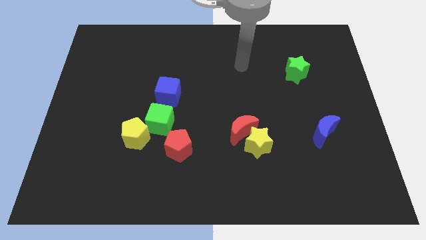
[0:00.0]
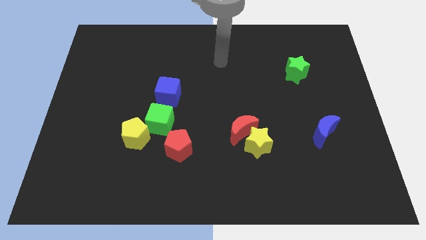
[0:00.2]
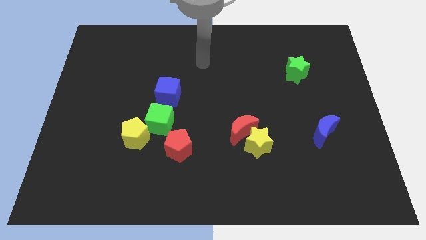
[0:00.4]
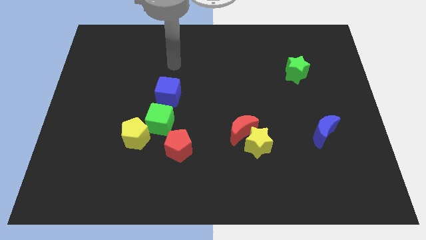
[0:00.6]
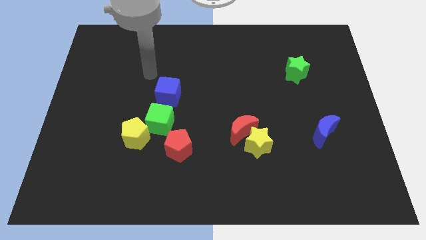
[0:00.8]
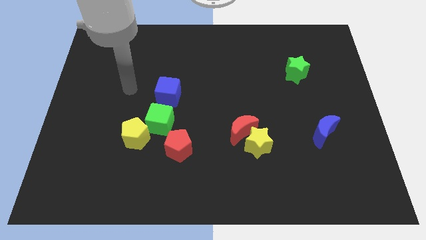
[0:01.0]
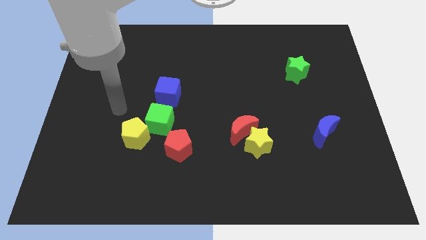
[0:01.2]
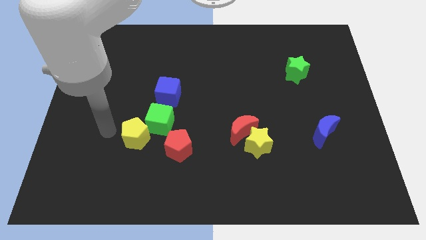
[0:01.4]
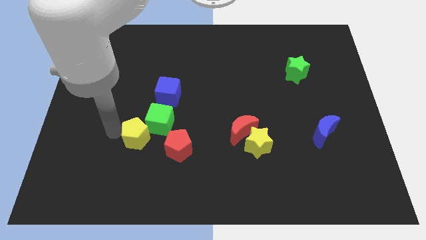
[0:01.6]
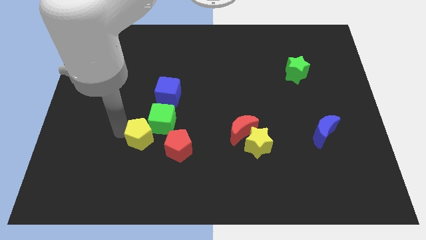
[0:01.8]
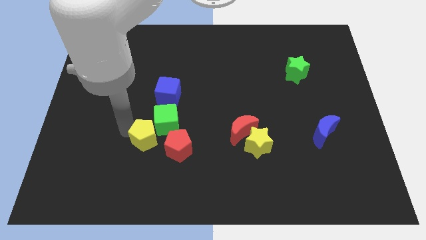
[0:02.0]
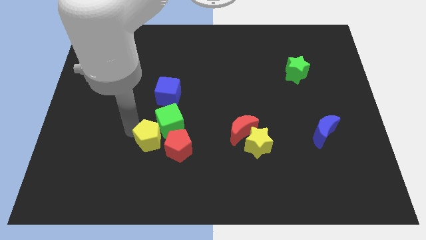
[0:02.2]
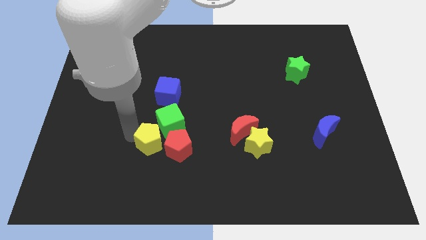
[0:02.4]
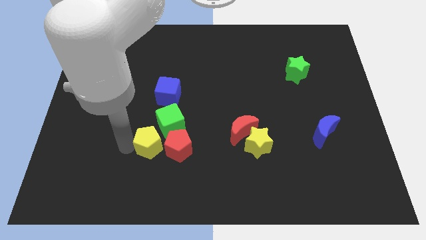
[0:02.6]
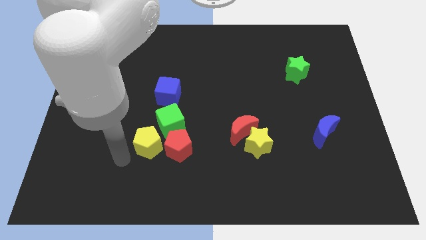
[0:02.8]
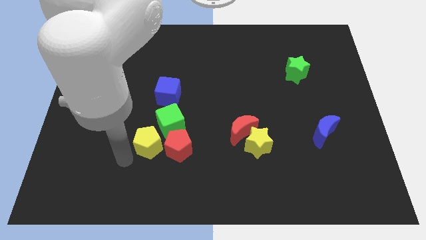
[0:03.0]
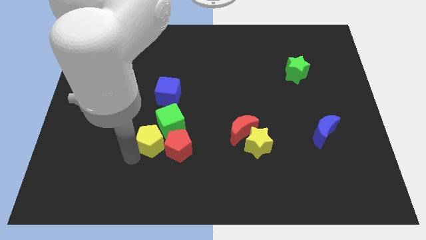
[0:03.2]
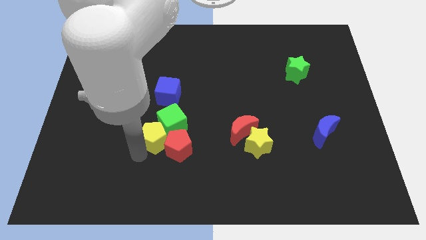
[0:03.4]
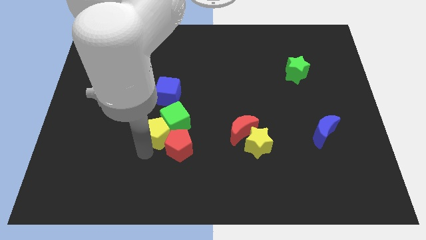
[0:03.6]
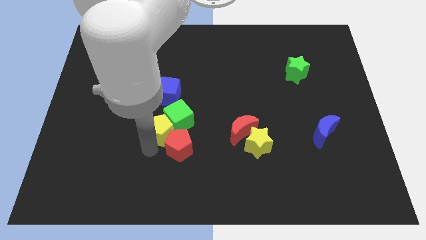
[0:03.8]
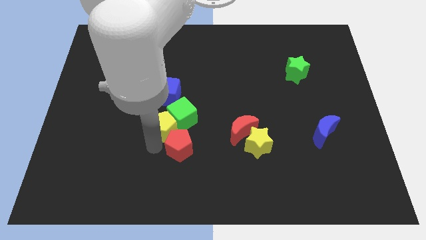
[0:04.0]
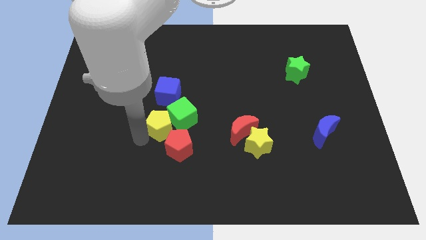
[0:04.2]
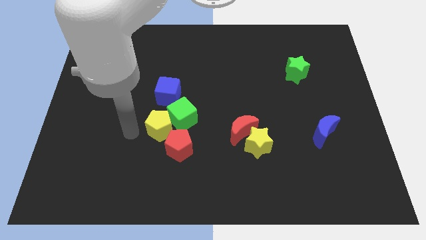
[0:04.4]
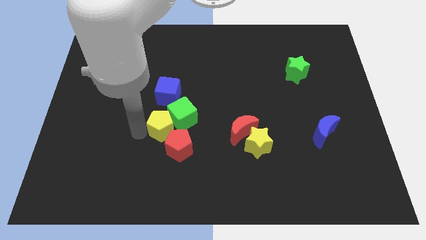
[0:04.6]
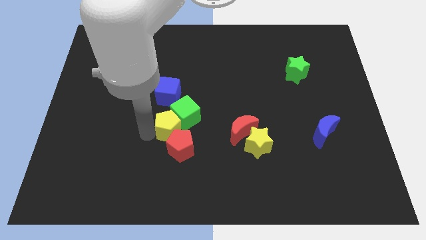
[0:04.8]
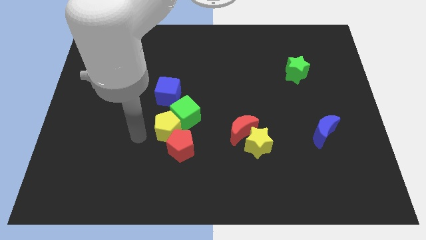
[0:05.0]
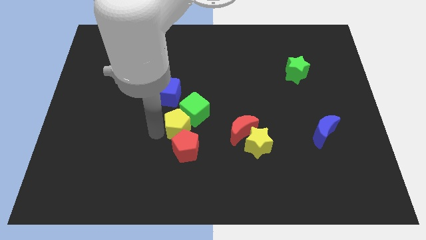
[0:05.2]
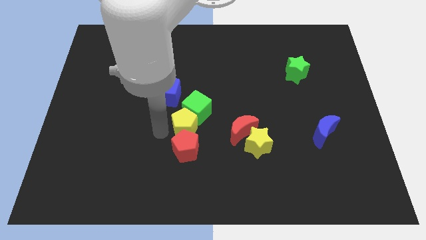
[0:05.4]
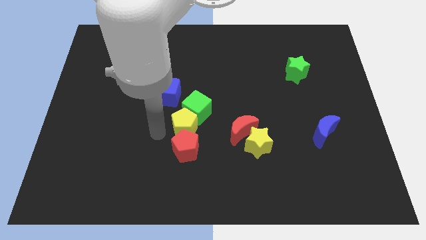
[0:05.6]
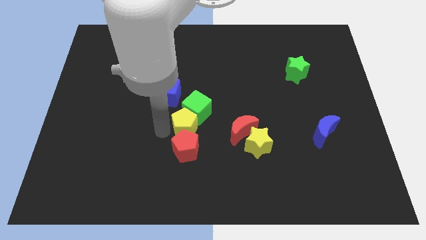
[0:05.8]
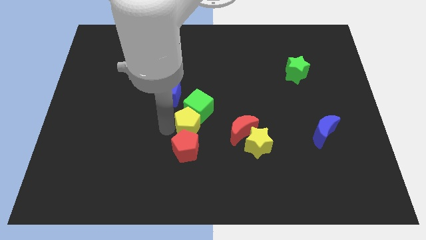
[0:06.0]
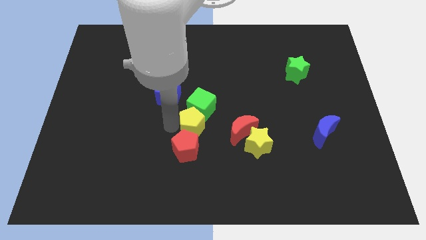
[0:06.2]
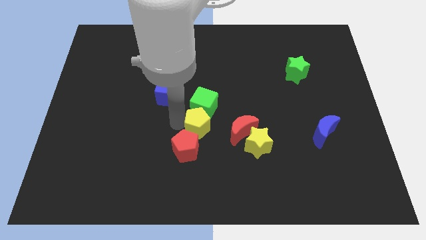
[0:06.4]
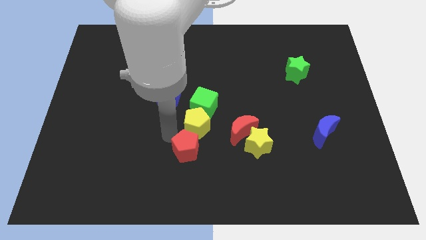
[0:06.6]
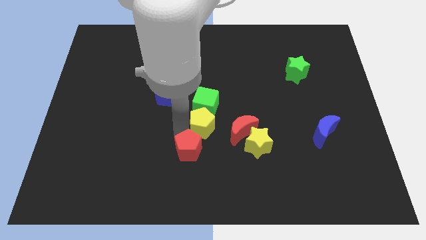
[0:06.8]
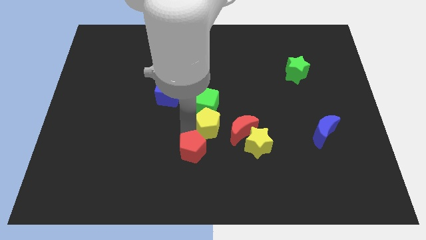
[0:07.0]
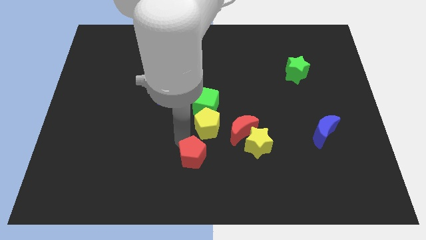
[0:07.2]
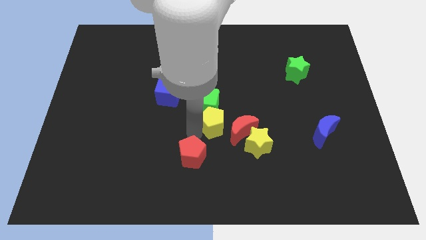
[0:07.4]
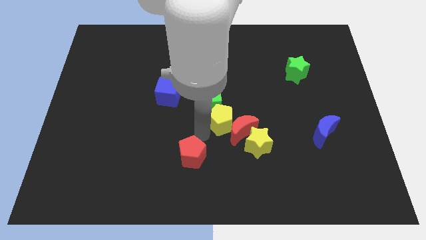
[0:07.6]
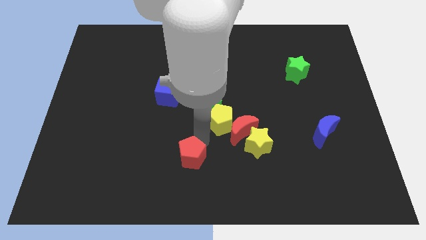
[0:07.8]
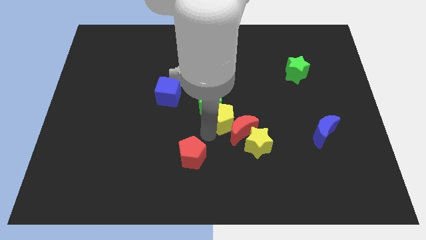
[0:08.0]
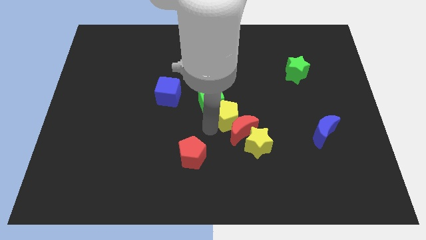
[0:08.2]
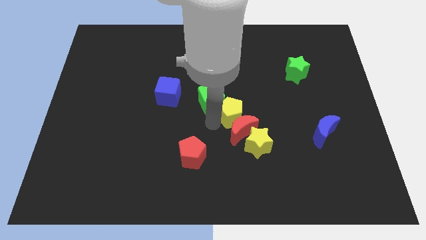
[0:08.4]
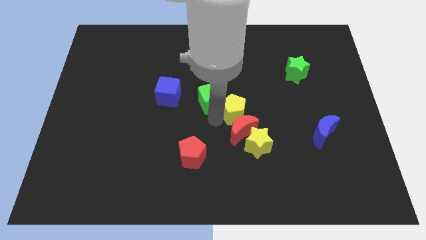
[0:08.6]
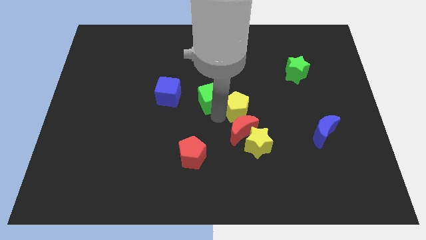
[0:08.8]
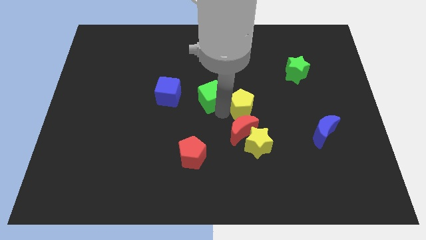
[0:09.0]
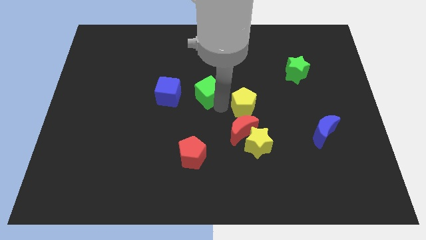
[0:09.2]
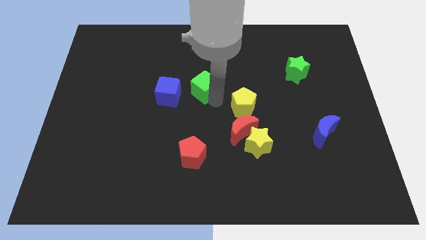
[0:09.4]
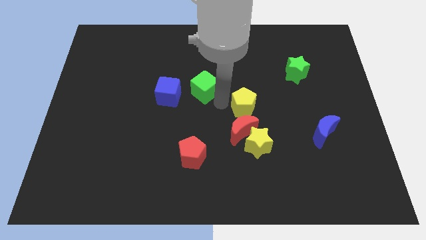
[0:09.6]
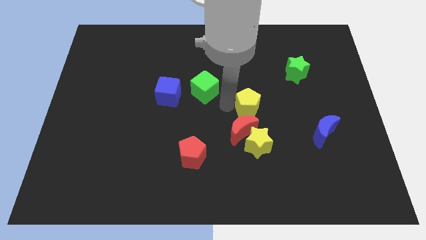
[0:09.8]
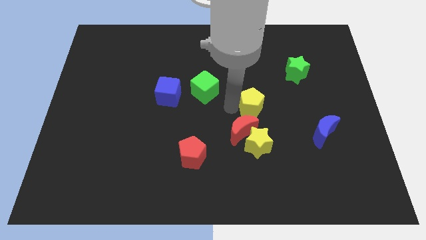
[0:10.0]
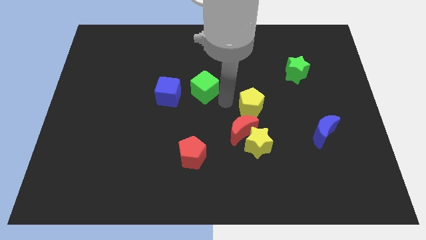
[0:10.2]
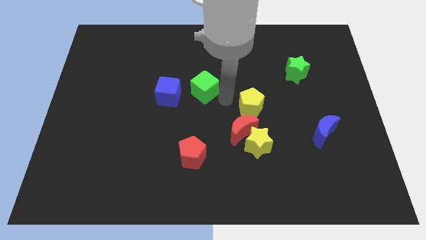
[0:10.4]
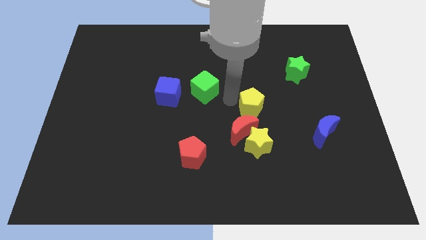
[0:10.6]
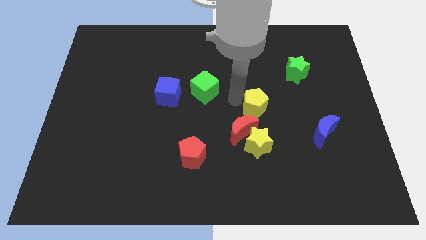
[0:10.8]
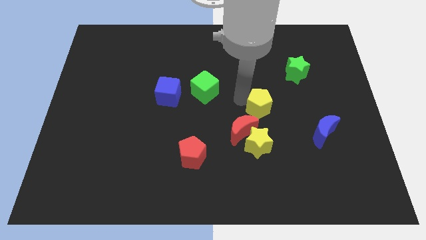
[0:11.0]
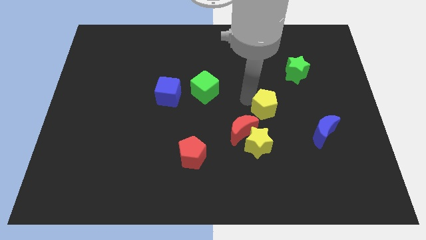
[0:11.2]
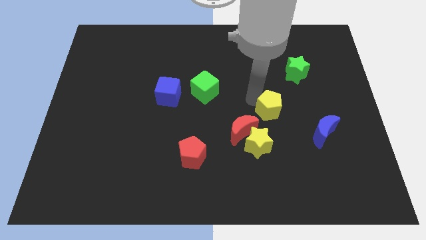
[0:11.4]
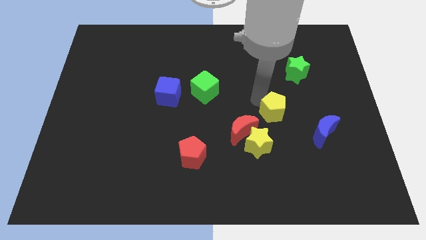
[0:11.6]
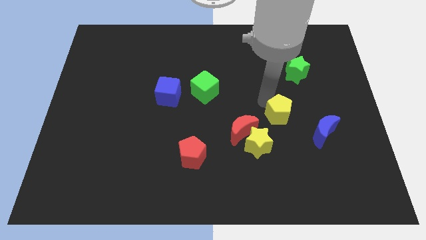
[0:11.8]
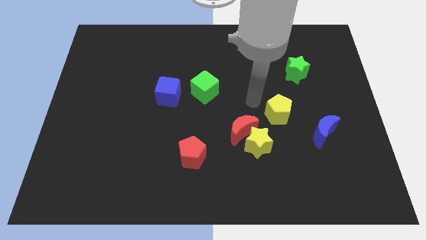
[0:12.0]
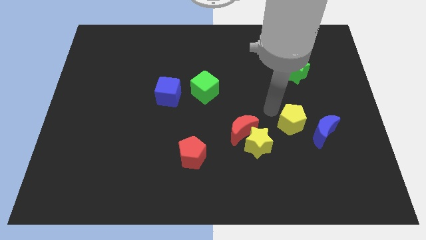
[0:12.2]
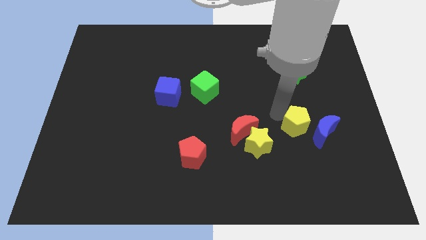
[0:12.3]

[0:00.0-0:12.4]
put the yellow pentagon towards the blue moon

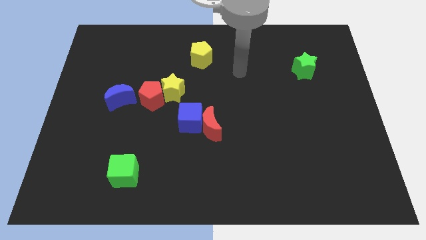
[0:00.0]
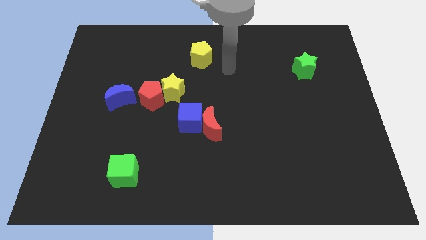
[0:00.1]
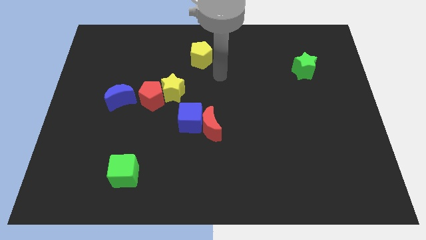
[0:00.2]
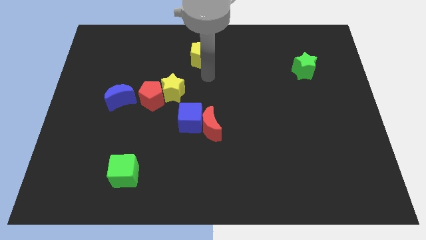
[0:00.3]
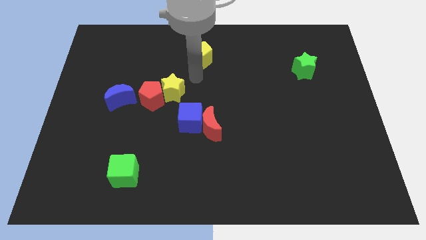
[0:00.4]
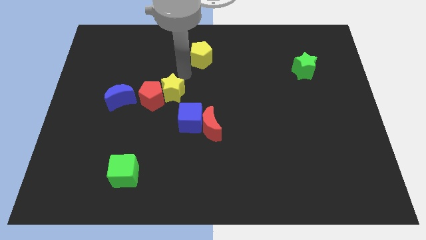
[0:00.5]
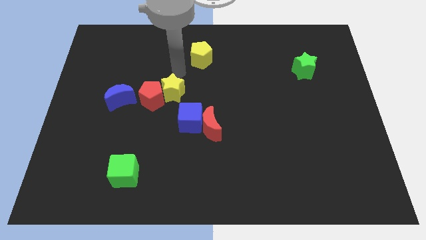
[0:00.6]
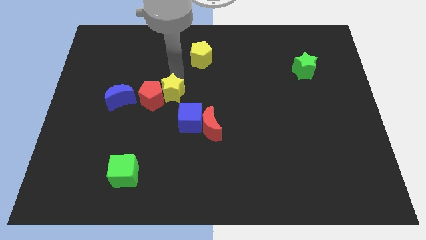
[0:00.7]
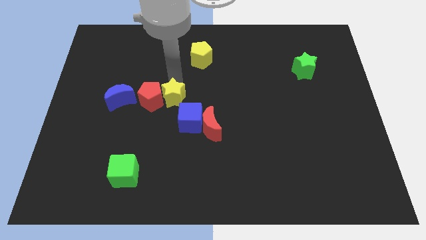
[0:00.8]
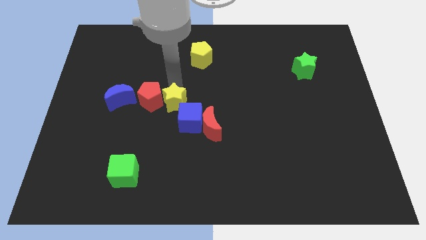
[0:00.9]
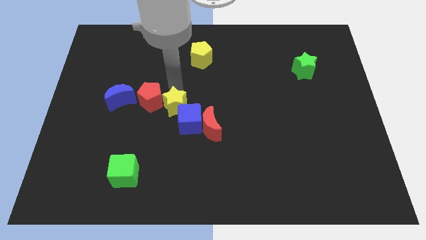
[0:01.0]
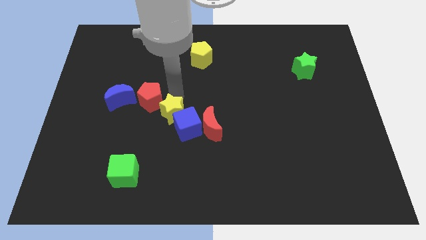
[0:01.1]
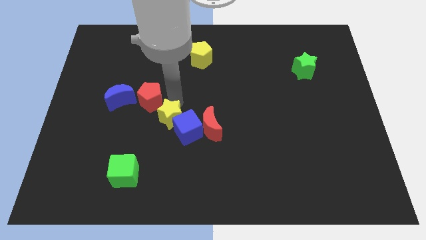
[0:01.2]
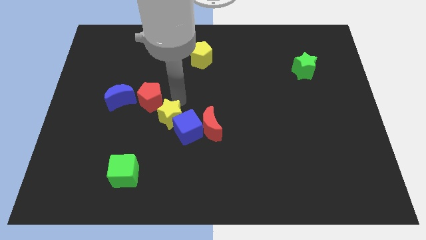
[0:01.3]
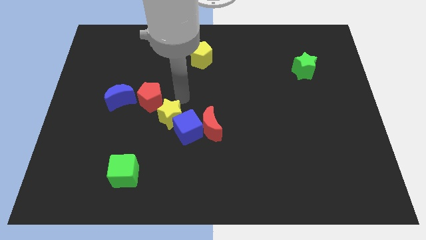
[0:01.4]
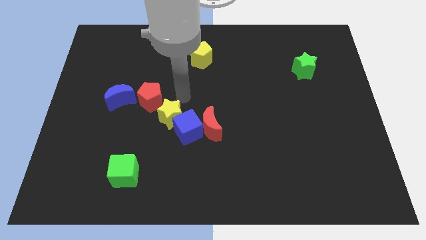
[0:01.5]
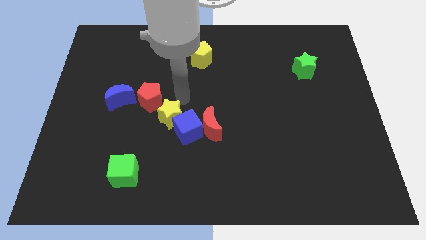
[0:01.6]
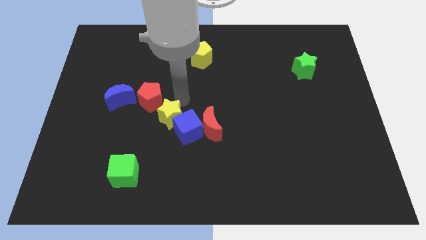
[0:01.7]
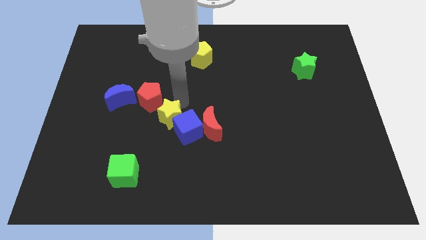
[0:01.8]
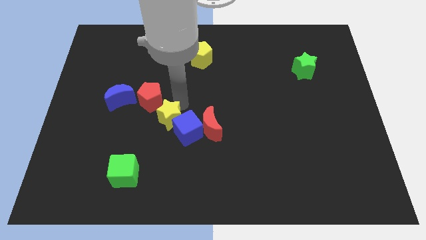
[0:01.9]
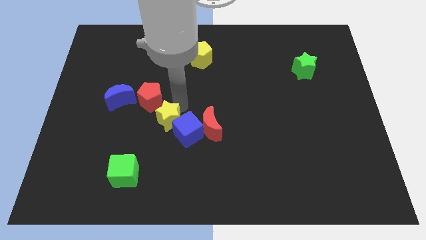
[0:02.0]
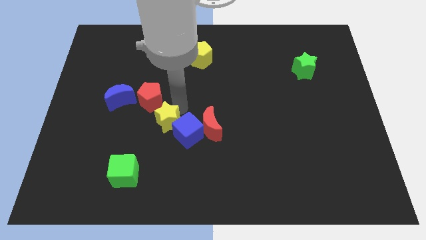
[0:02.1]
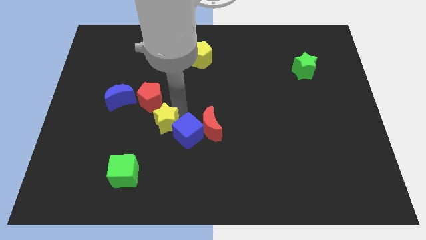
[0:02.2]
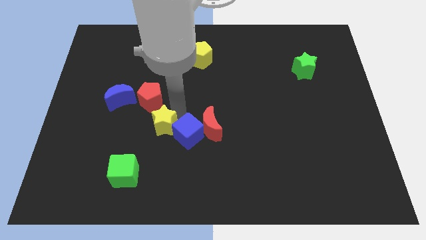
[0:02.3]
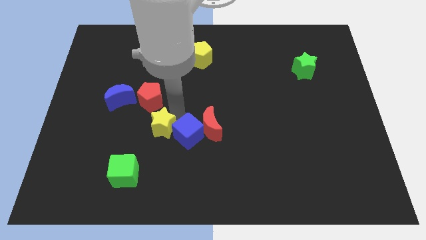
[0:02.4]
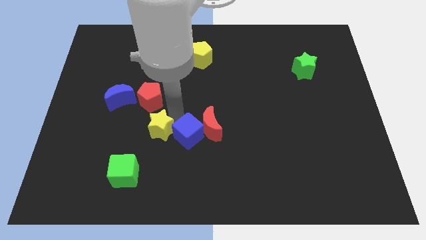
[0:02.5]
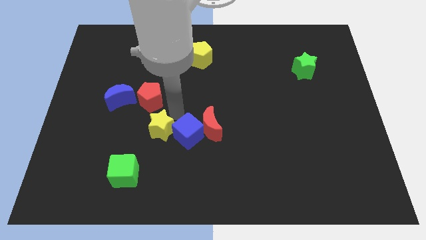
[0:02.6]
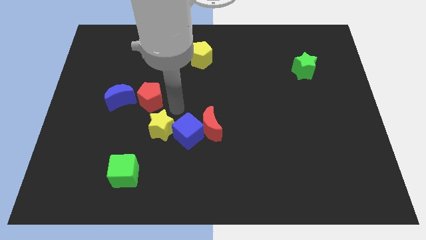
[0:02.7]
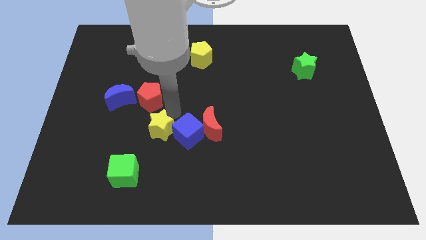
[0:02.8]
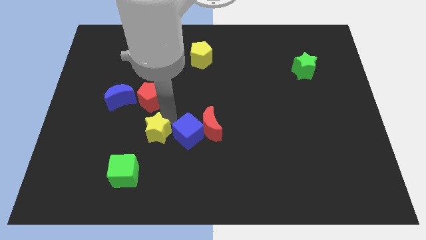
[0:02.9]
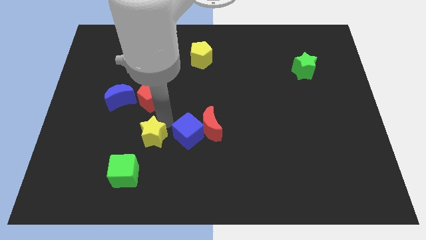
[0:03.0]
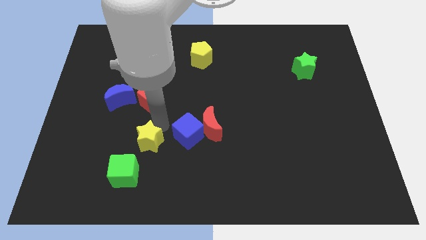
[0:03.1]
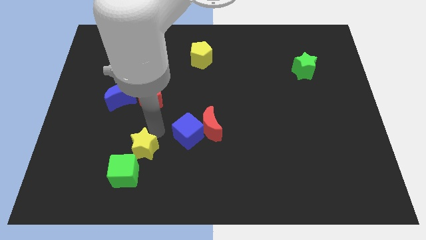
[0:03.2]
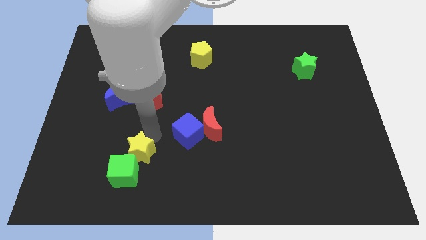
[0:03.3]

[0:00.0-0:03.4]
slide the yellow star to the green cube
